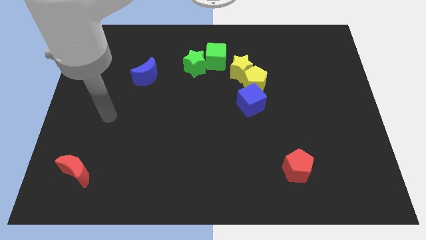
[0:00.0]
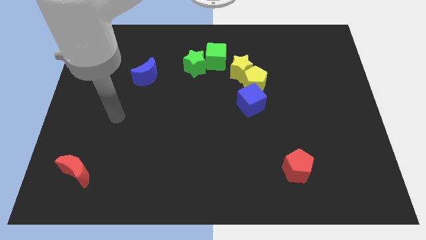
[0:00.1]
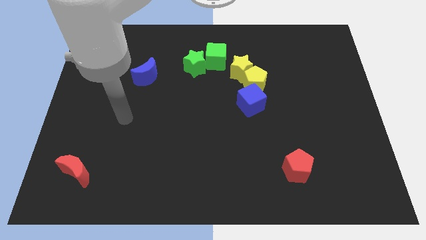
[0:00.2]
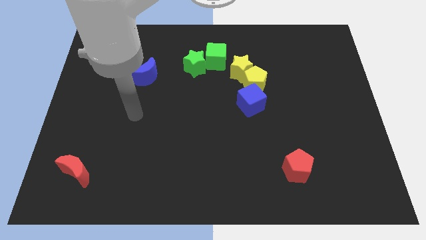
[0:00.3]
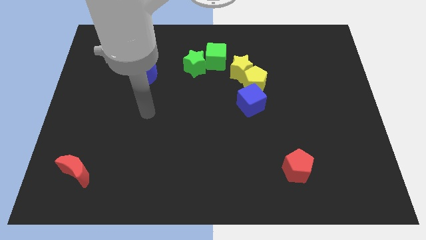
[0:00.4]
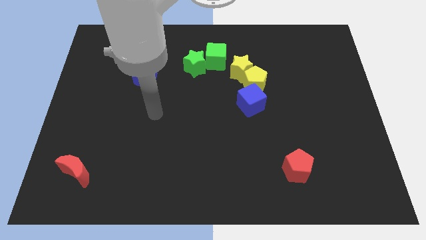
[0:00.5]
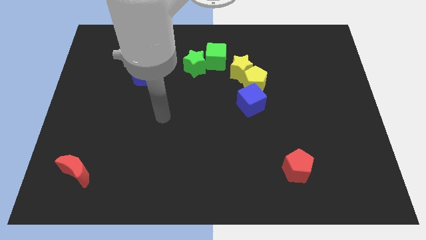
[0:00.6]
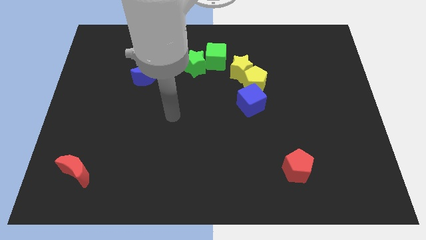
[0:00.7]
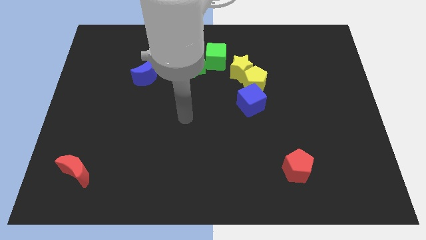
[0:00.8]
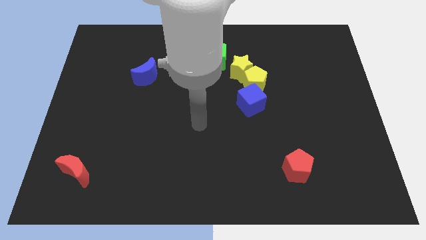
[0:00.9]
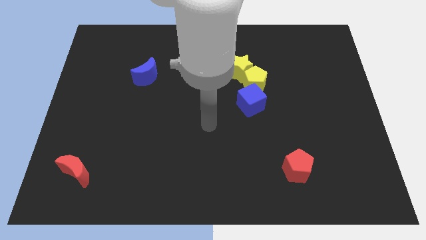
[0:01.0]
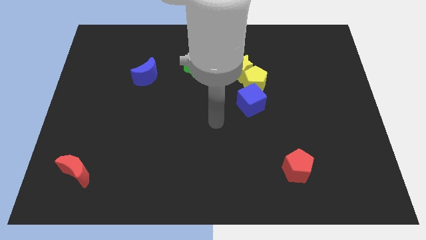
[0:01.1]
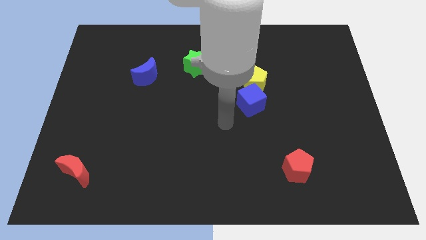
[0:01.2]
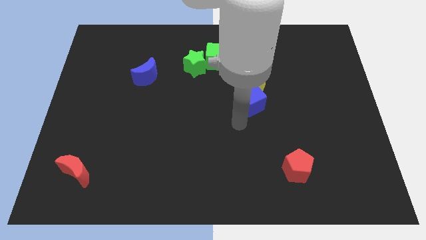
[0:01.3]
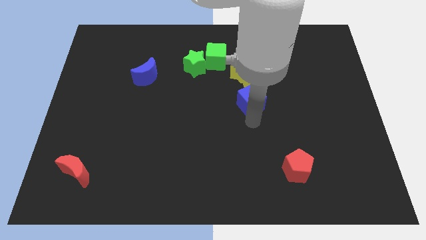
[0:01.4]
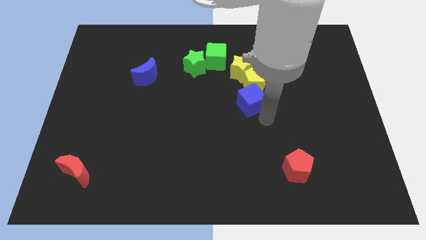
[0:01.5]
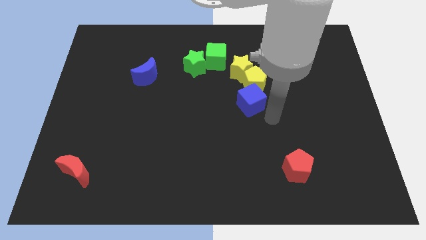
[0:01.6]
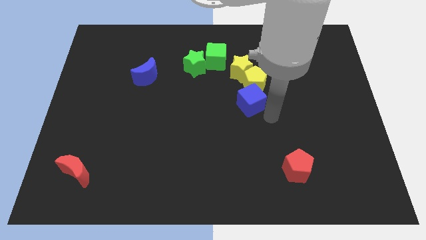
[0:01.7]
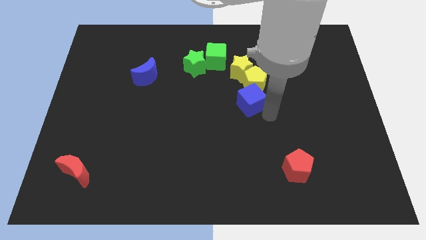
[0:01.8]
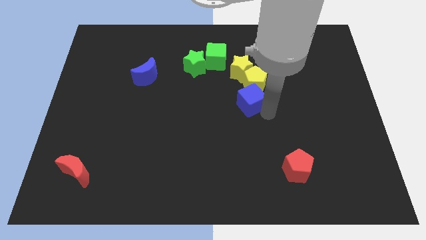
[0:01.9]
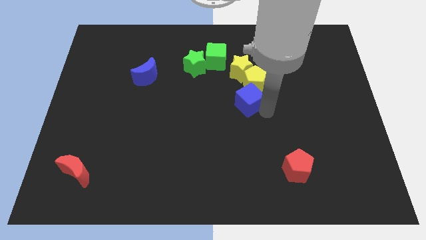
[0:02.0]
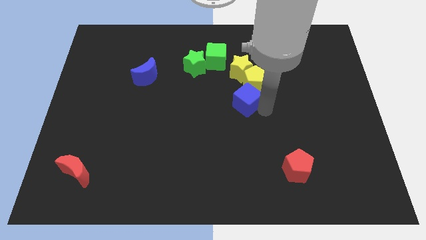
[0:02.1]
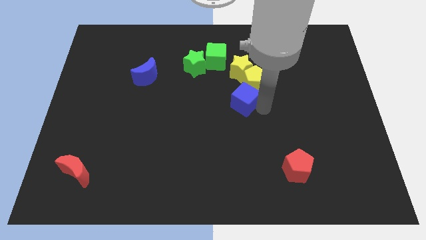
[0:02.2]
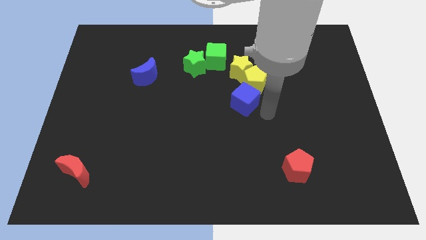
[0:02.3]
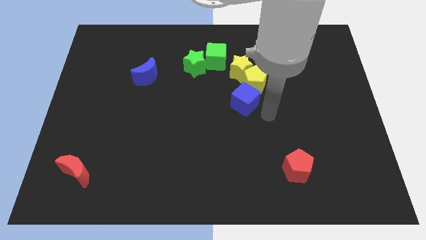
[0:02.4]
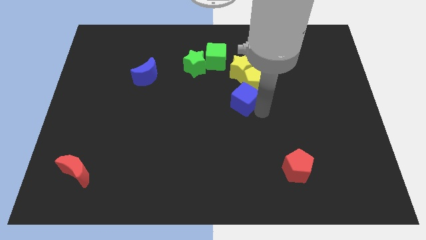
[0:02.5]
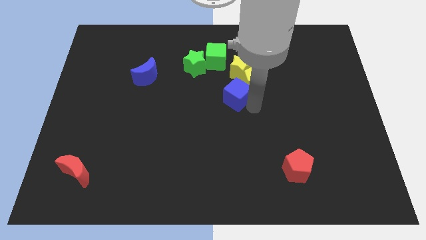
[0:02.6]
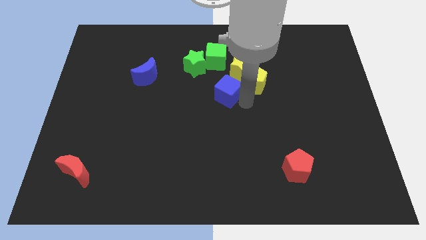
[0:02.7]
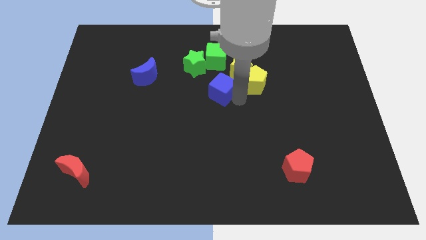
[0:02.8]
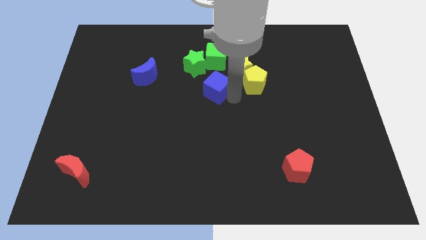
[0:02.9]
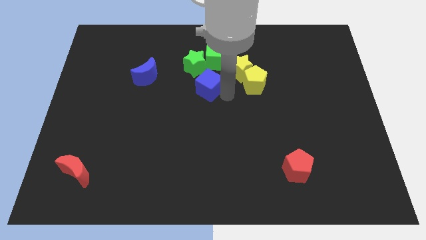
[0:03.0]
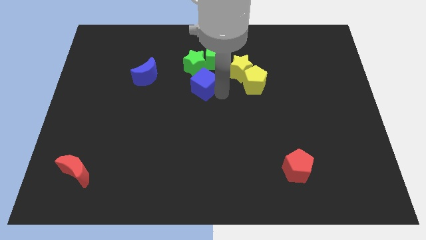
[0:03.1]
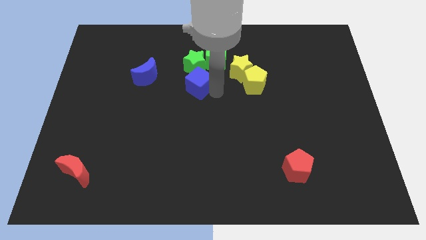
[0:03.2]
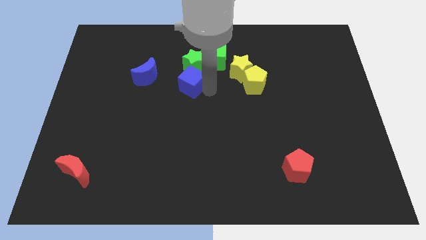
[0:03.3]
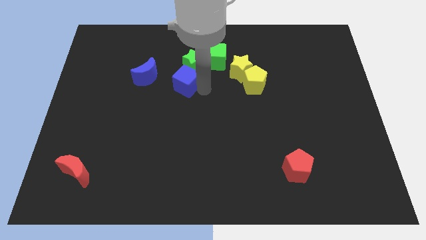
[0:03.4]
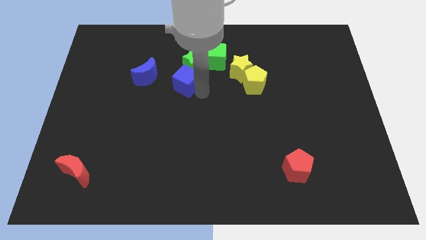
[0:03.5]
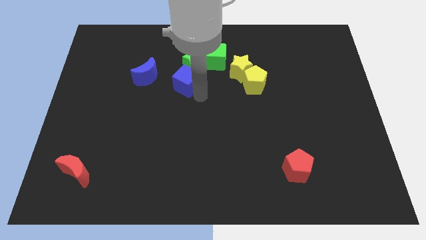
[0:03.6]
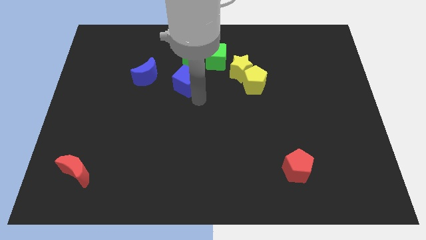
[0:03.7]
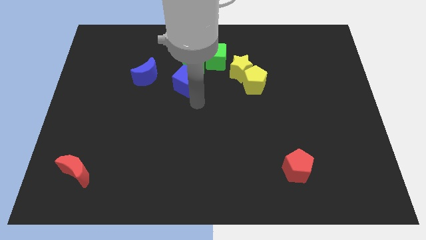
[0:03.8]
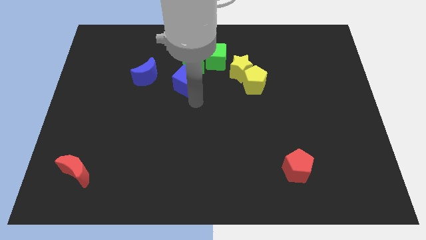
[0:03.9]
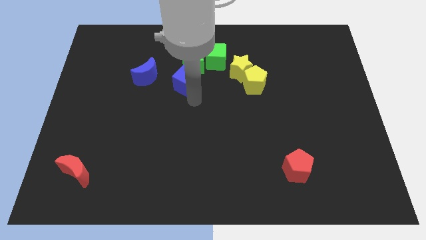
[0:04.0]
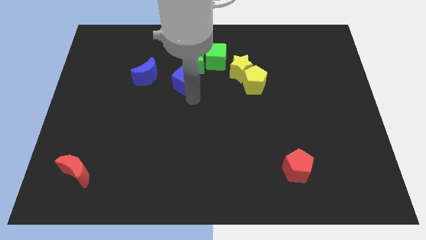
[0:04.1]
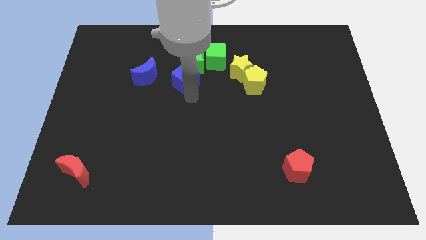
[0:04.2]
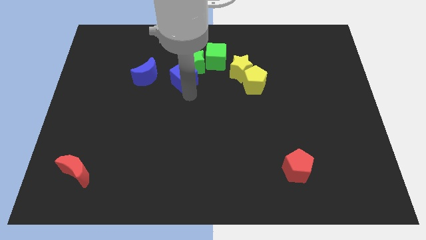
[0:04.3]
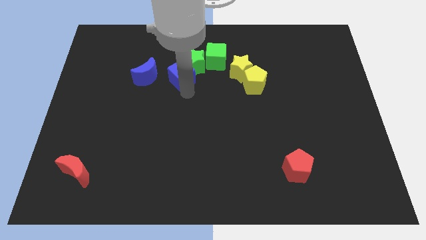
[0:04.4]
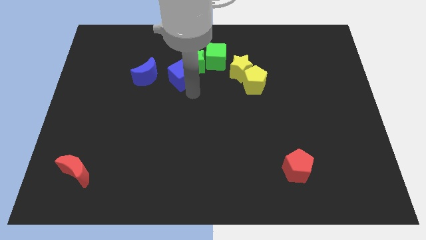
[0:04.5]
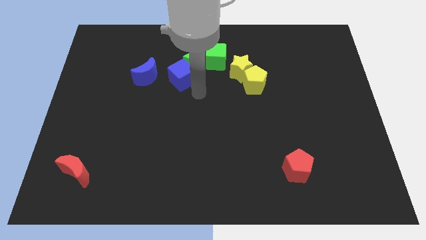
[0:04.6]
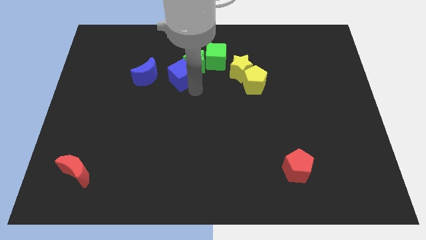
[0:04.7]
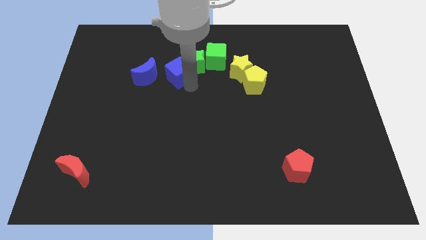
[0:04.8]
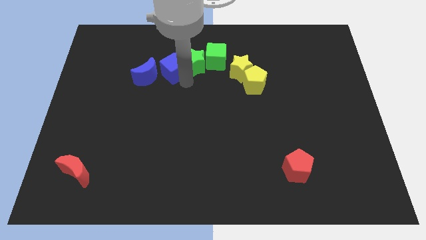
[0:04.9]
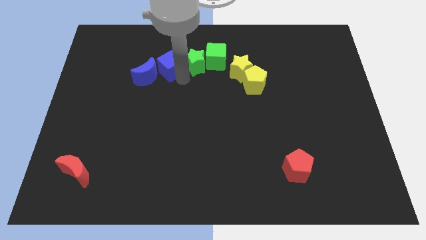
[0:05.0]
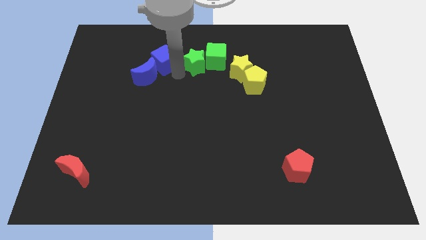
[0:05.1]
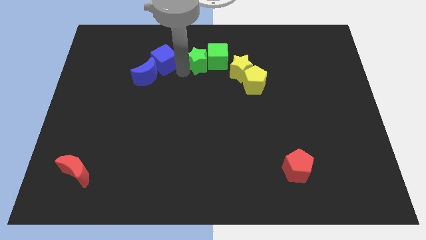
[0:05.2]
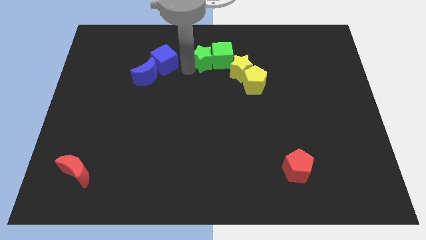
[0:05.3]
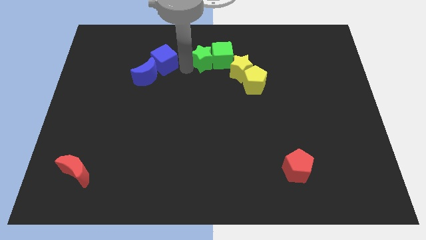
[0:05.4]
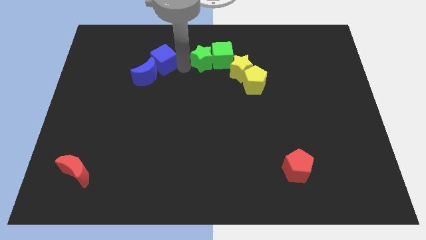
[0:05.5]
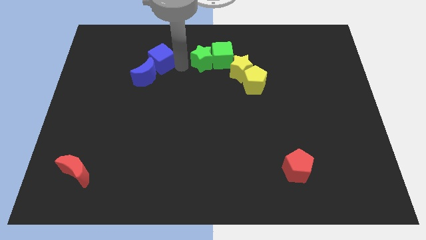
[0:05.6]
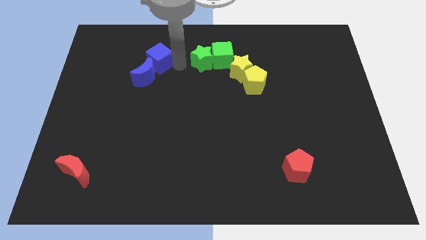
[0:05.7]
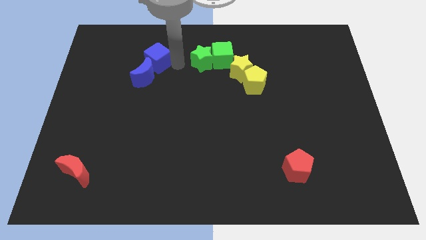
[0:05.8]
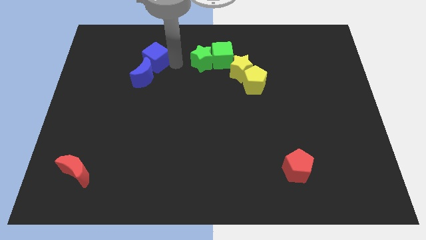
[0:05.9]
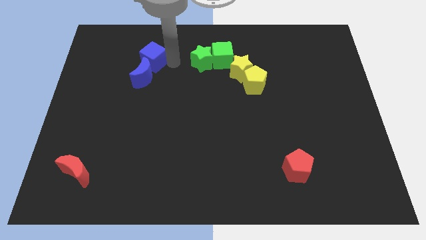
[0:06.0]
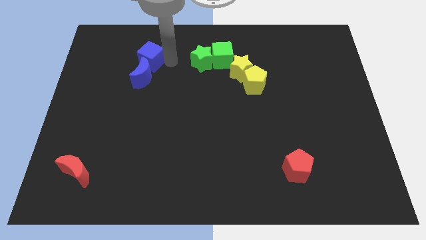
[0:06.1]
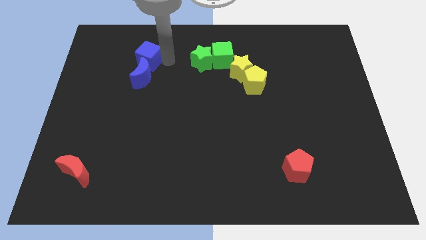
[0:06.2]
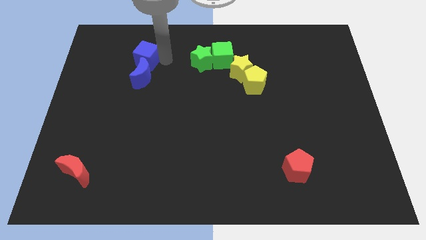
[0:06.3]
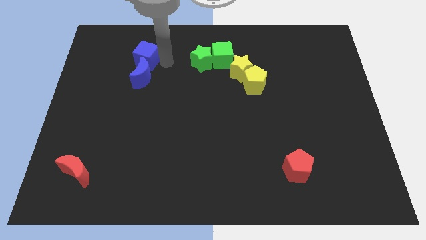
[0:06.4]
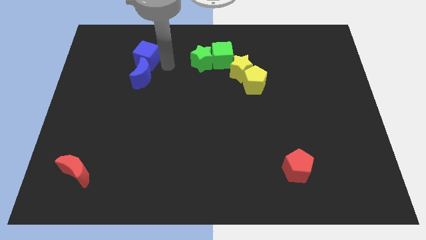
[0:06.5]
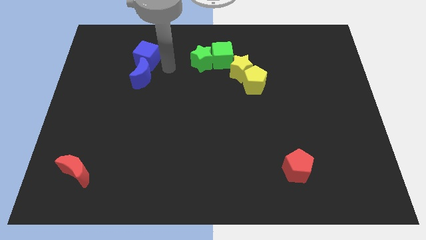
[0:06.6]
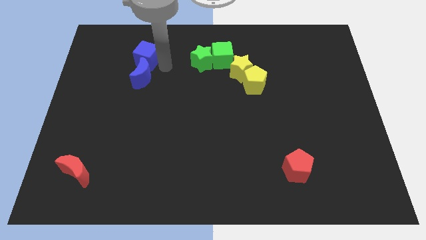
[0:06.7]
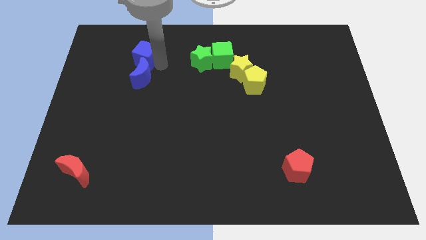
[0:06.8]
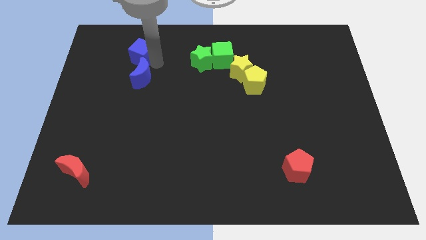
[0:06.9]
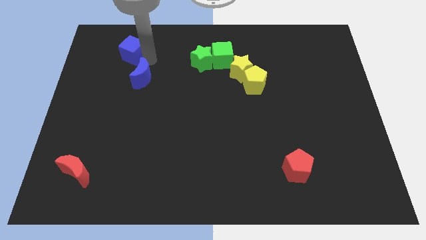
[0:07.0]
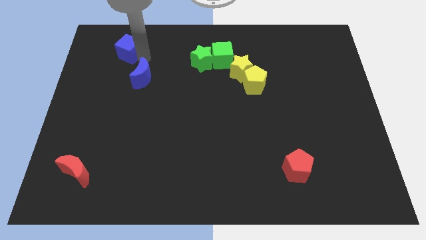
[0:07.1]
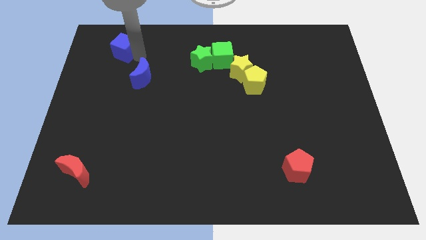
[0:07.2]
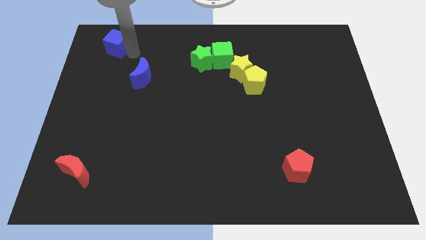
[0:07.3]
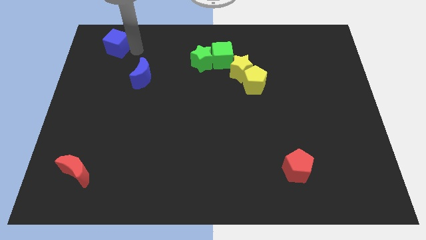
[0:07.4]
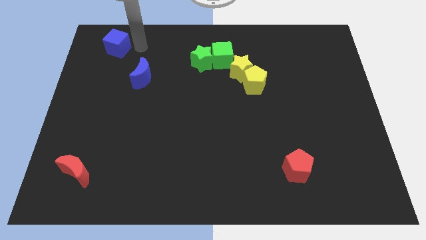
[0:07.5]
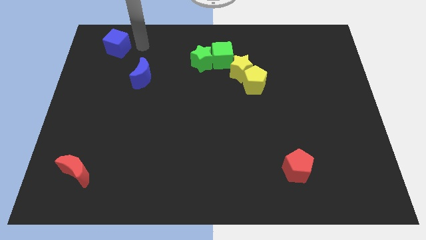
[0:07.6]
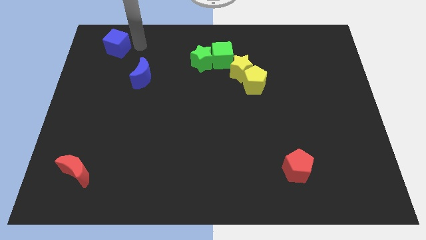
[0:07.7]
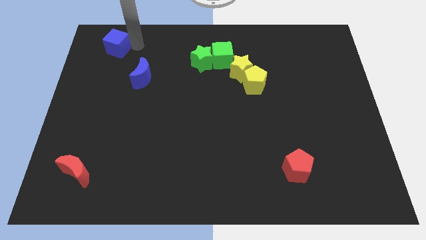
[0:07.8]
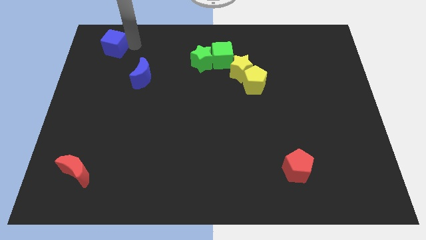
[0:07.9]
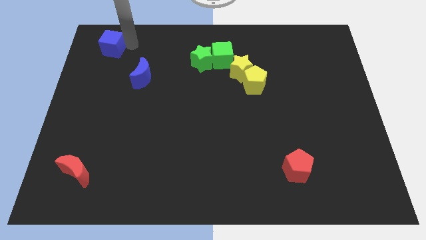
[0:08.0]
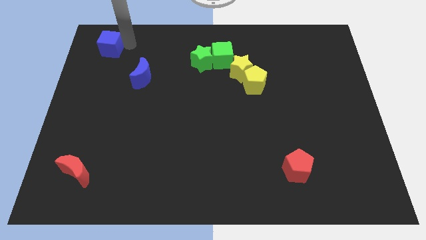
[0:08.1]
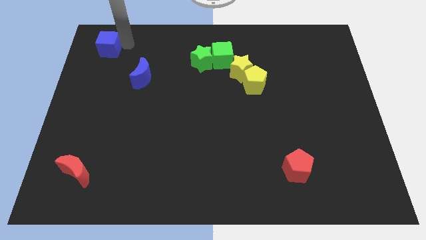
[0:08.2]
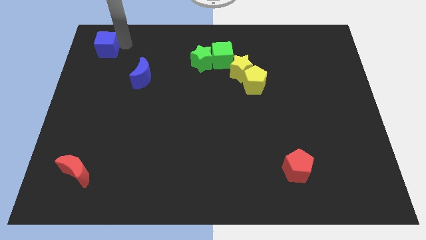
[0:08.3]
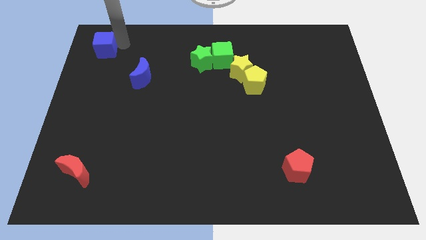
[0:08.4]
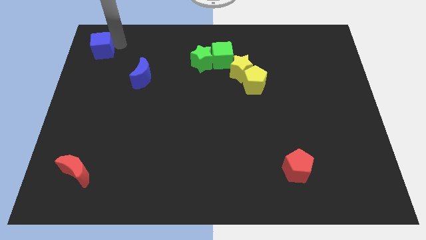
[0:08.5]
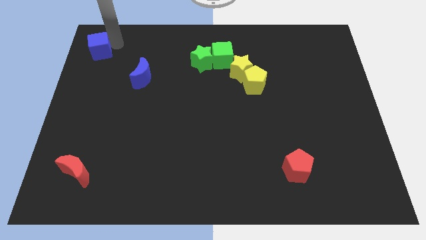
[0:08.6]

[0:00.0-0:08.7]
push the blue cube to the top left corner
